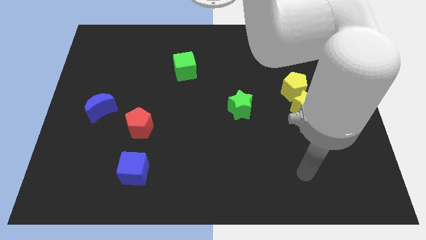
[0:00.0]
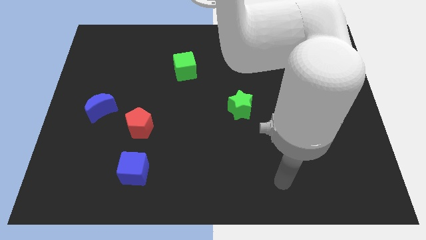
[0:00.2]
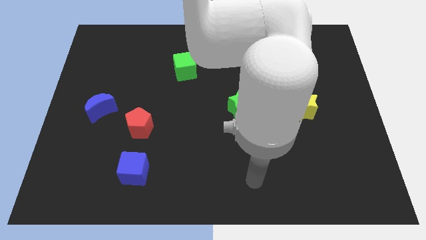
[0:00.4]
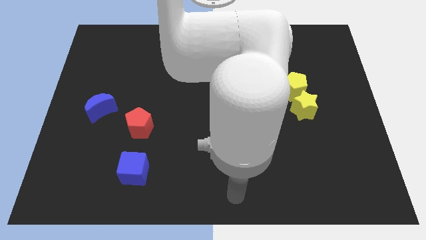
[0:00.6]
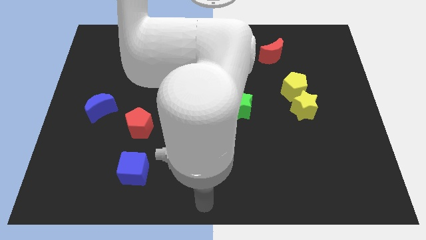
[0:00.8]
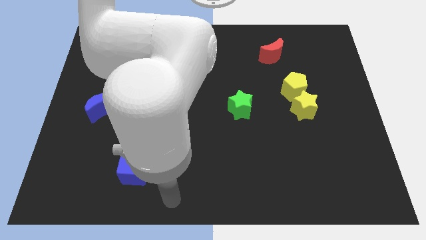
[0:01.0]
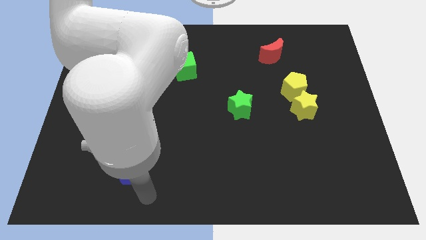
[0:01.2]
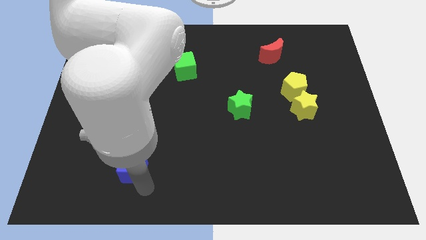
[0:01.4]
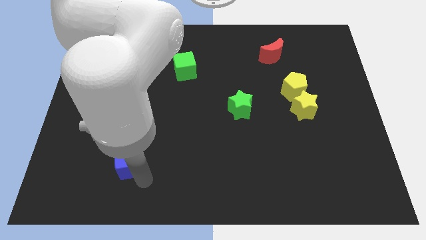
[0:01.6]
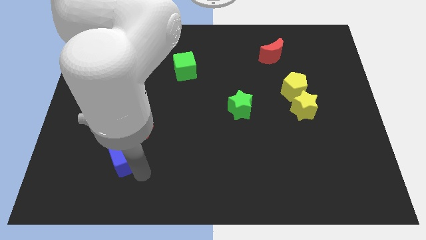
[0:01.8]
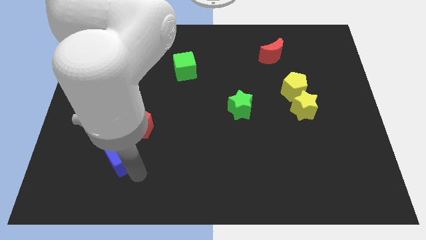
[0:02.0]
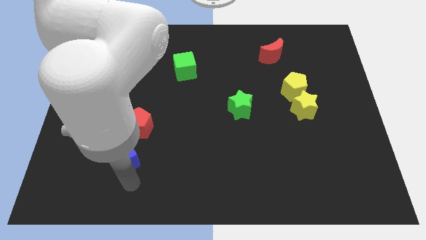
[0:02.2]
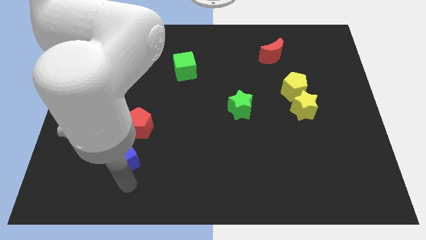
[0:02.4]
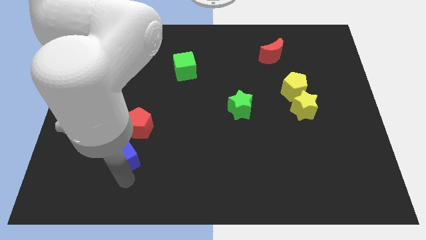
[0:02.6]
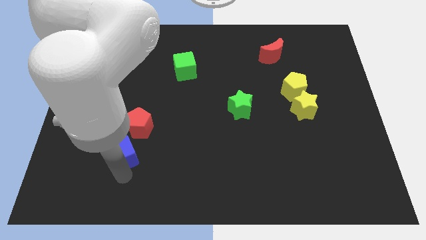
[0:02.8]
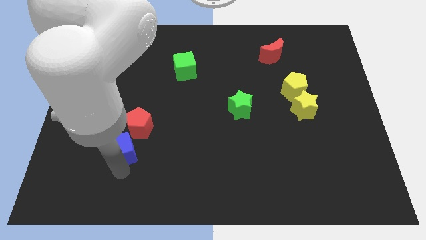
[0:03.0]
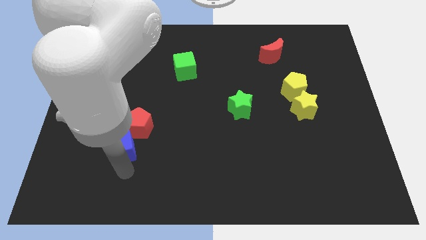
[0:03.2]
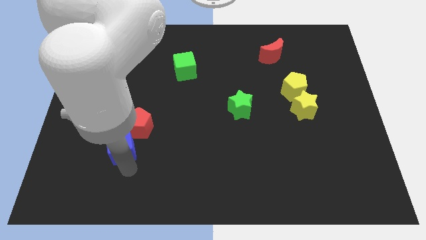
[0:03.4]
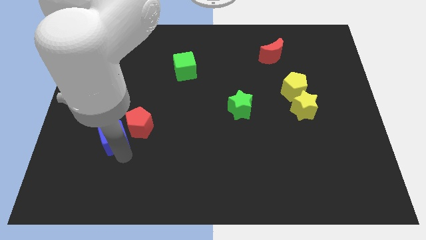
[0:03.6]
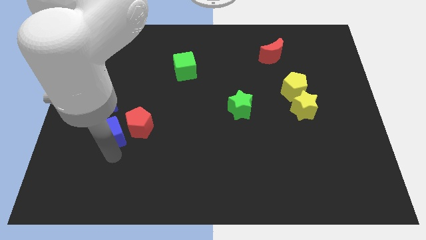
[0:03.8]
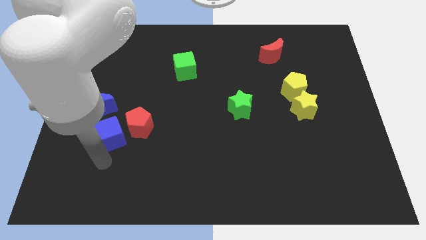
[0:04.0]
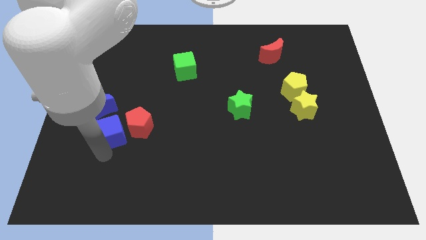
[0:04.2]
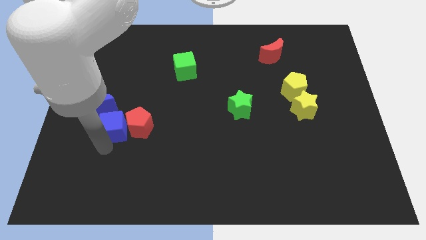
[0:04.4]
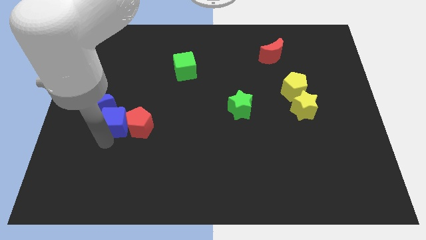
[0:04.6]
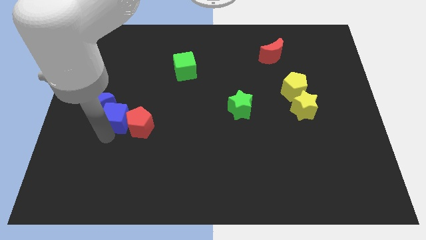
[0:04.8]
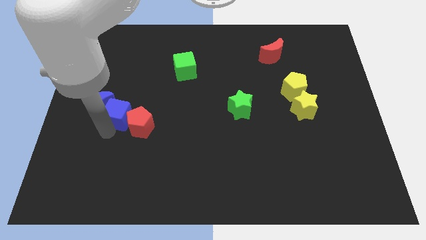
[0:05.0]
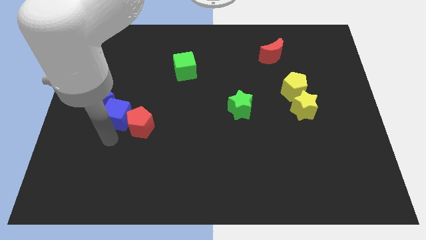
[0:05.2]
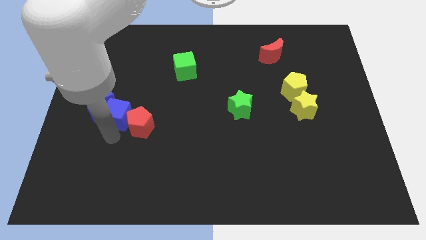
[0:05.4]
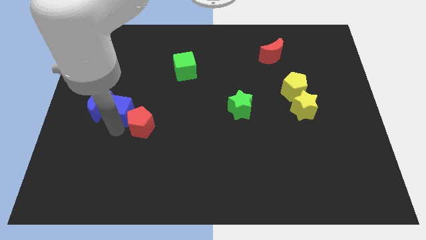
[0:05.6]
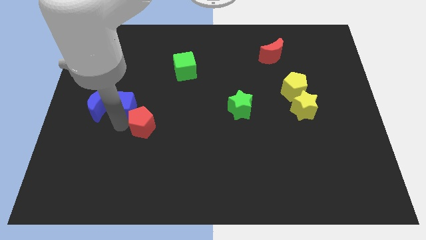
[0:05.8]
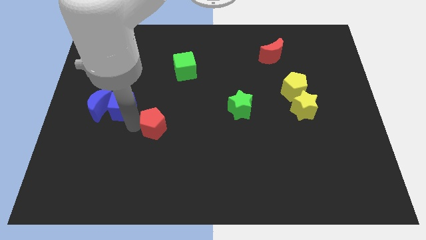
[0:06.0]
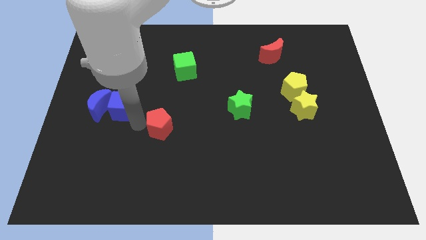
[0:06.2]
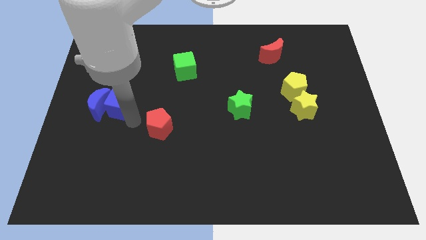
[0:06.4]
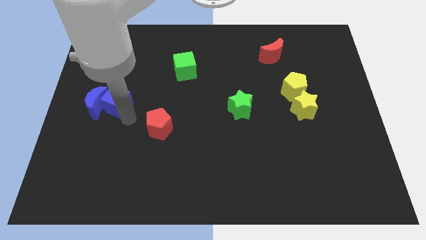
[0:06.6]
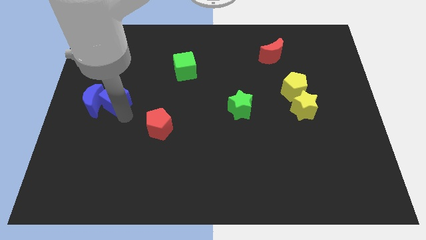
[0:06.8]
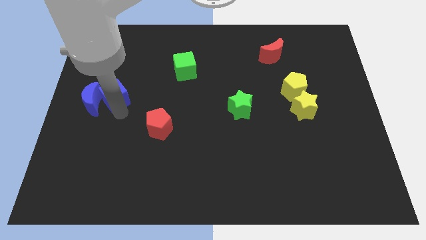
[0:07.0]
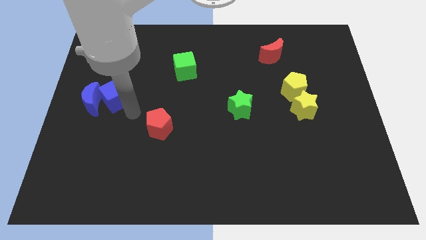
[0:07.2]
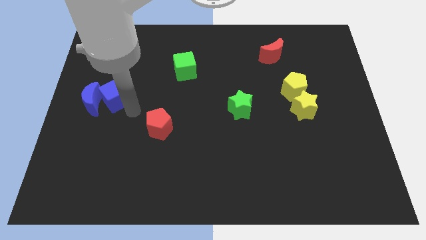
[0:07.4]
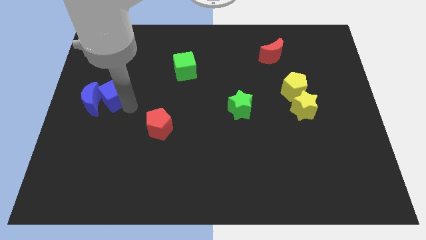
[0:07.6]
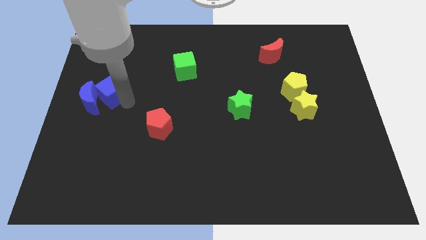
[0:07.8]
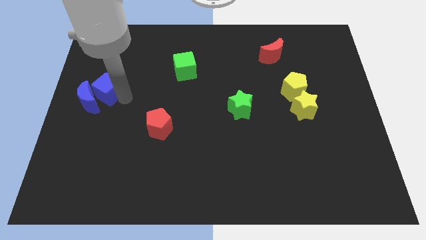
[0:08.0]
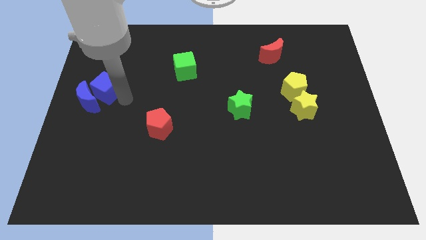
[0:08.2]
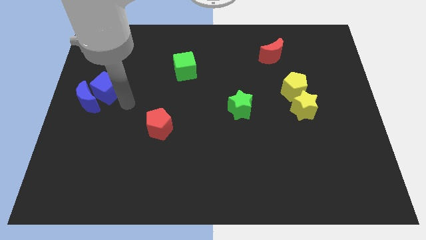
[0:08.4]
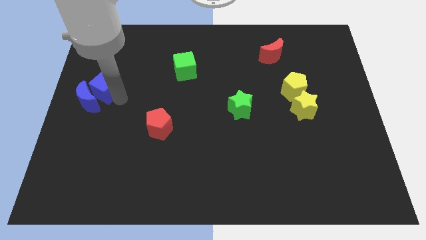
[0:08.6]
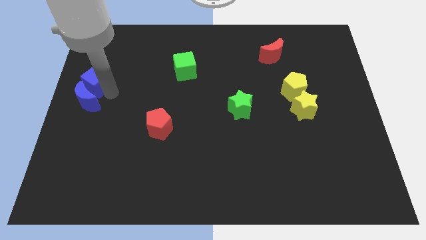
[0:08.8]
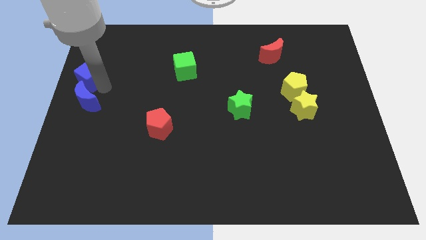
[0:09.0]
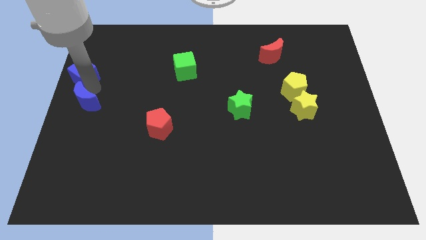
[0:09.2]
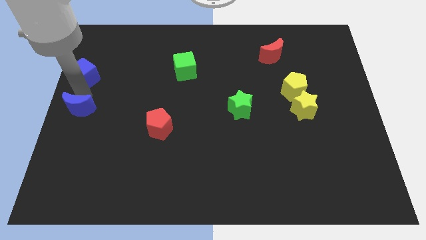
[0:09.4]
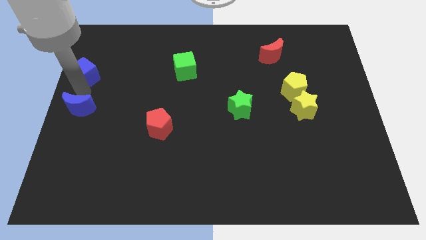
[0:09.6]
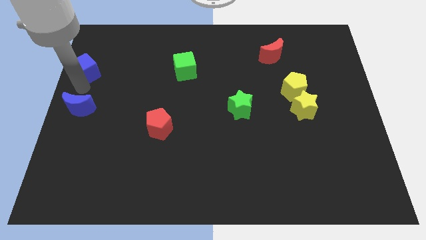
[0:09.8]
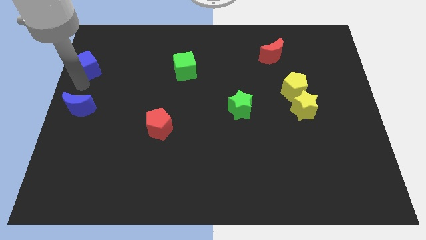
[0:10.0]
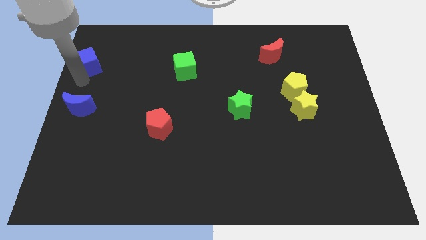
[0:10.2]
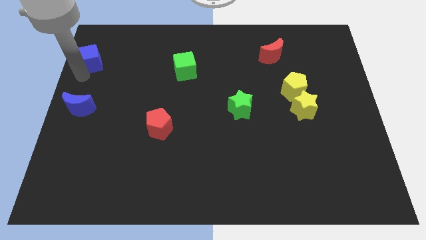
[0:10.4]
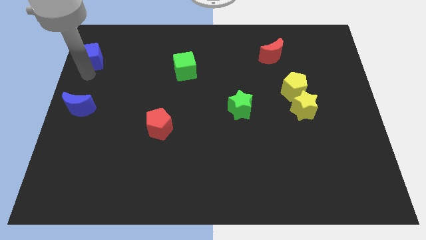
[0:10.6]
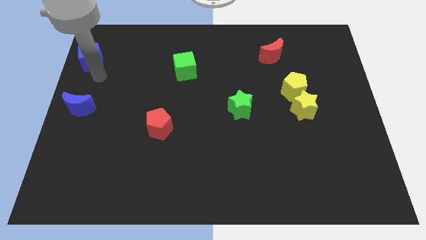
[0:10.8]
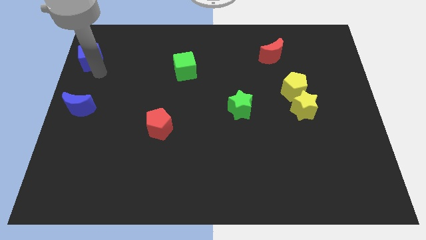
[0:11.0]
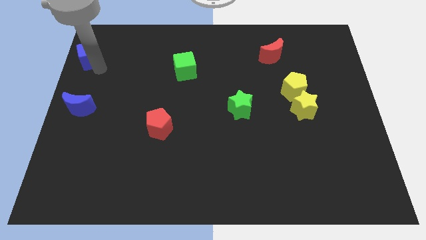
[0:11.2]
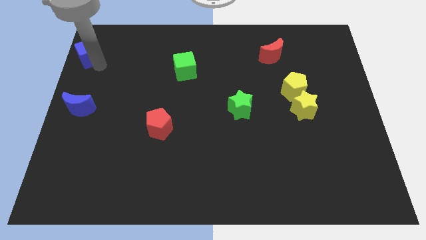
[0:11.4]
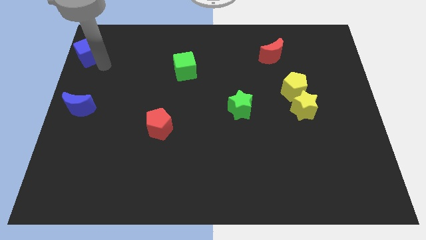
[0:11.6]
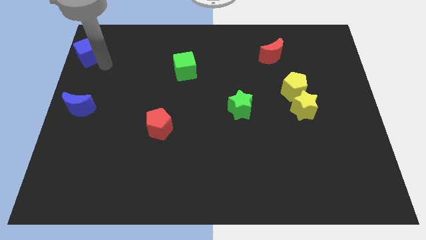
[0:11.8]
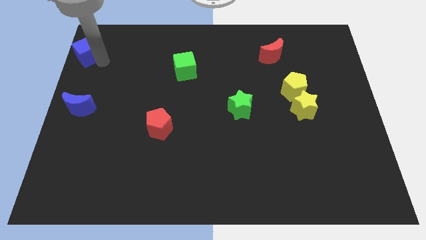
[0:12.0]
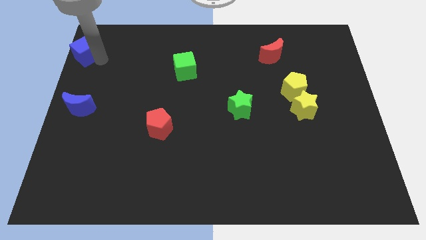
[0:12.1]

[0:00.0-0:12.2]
push the blue cube to the top left corner
